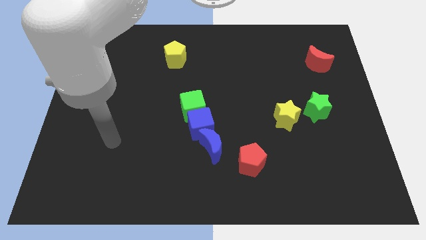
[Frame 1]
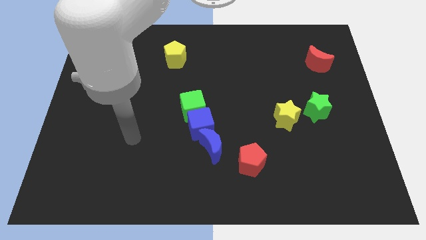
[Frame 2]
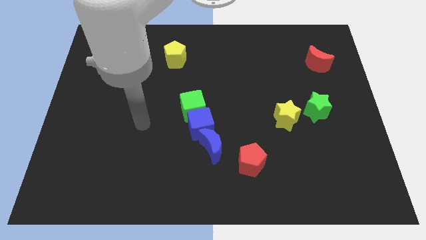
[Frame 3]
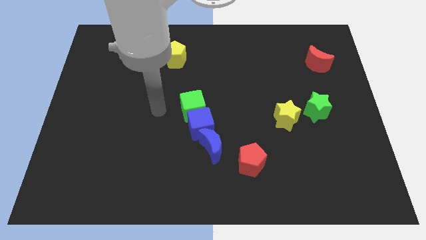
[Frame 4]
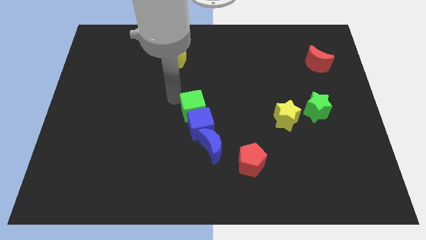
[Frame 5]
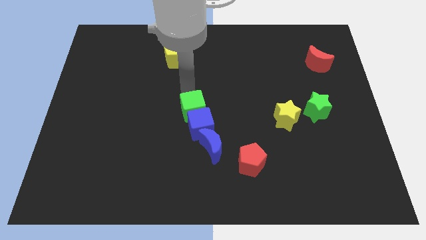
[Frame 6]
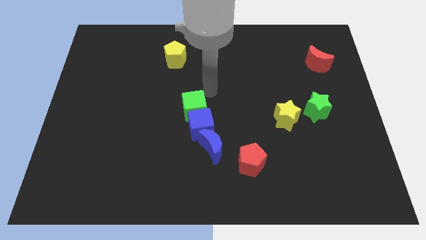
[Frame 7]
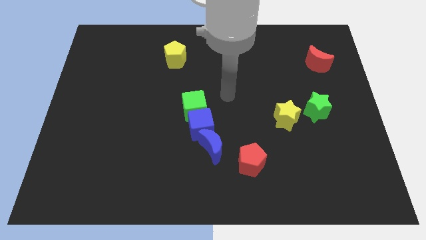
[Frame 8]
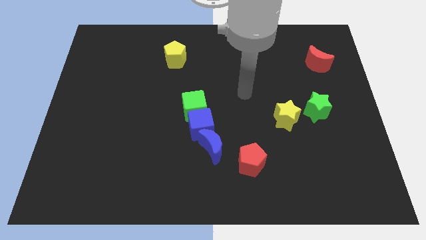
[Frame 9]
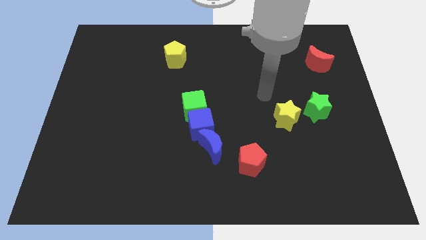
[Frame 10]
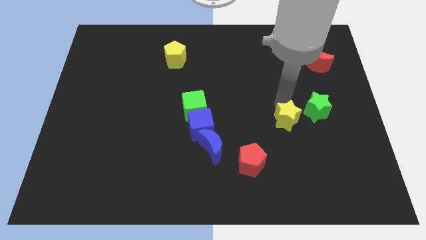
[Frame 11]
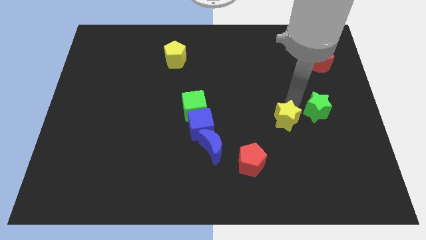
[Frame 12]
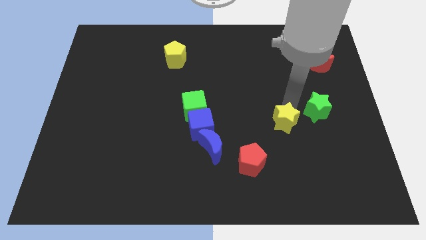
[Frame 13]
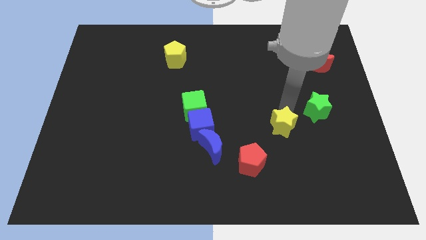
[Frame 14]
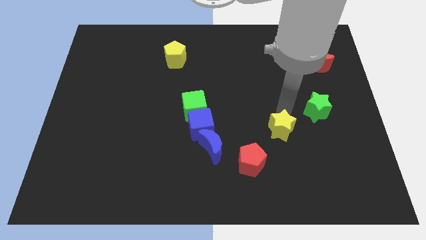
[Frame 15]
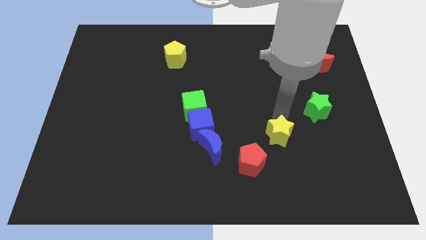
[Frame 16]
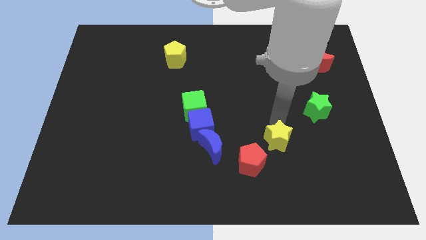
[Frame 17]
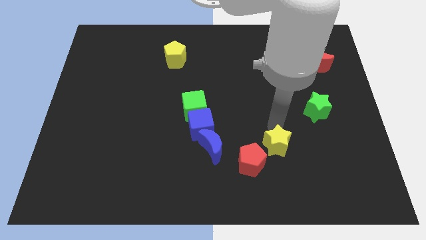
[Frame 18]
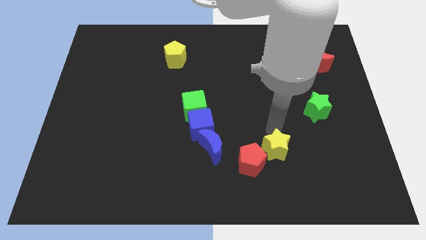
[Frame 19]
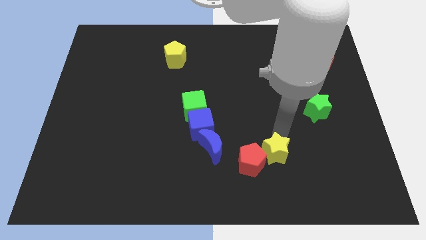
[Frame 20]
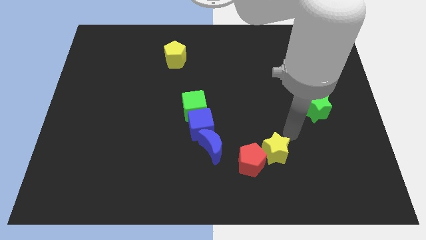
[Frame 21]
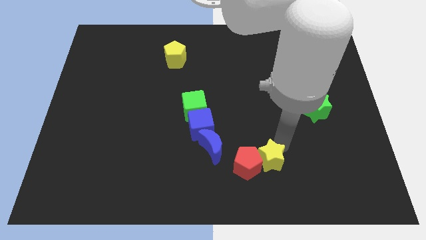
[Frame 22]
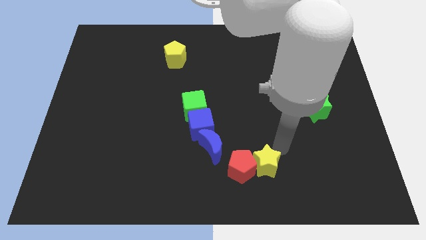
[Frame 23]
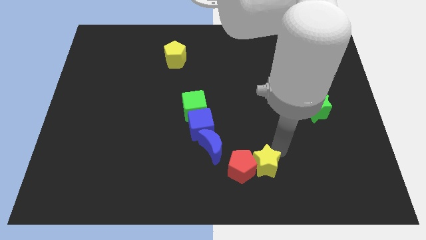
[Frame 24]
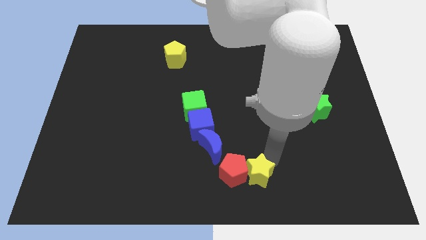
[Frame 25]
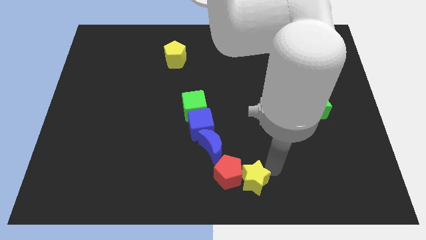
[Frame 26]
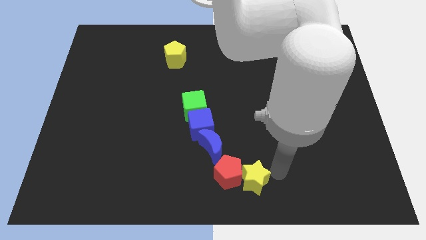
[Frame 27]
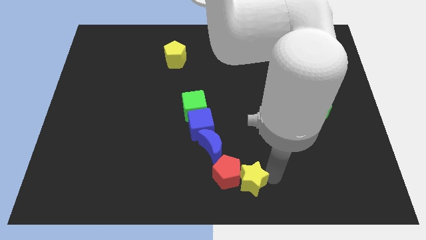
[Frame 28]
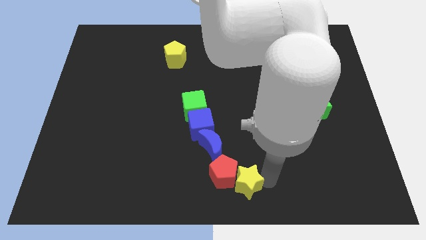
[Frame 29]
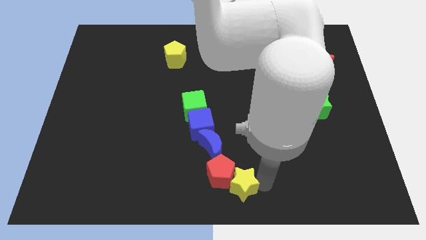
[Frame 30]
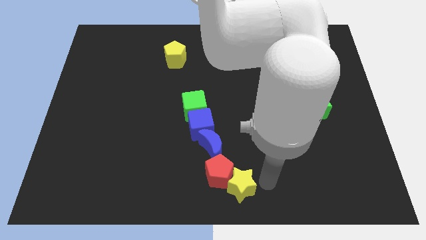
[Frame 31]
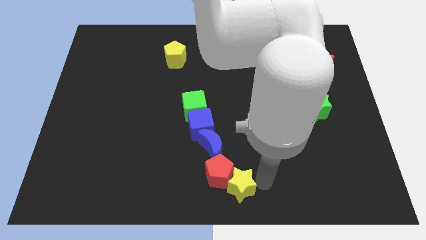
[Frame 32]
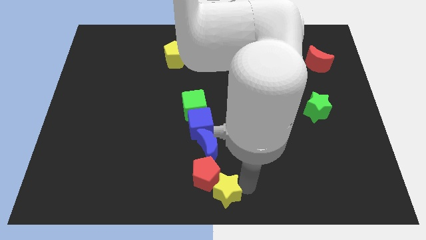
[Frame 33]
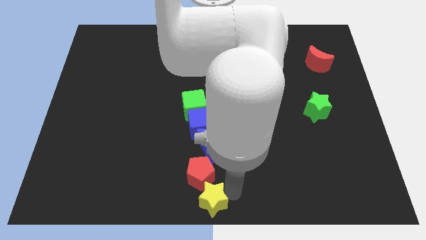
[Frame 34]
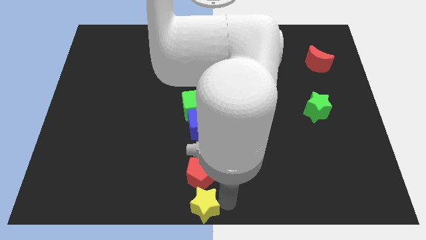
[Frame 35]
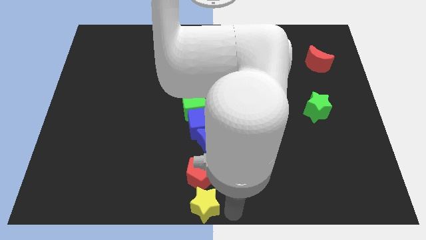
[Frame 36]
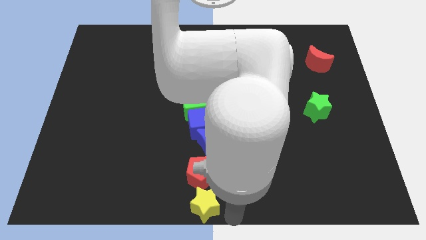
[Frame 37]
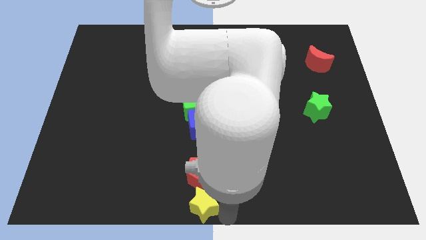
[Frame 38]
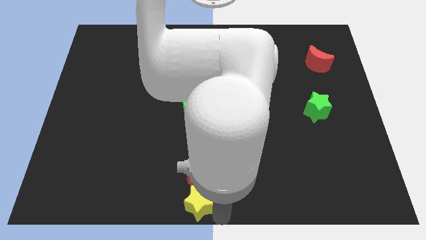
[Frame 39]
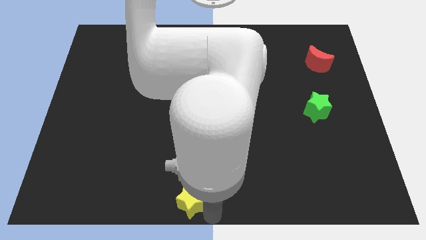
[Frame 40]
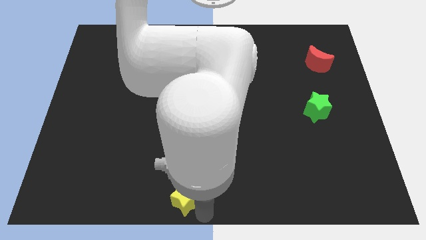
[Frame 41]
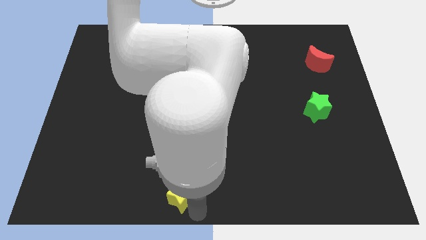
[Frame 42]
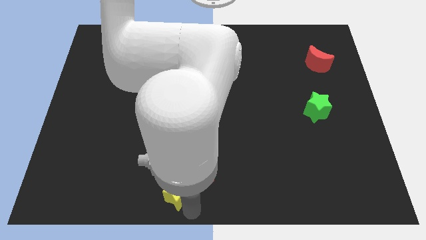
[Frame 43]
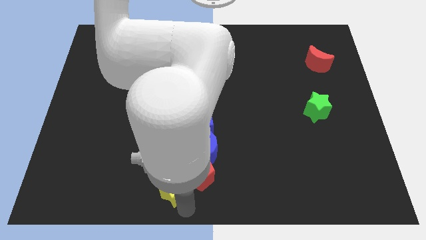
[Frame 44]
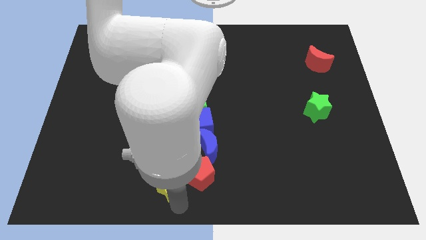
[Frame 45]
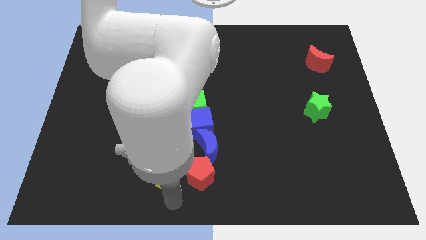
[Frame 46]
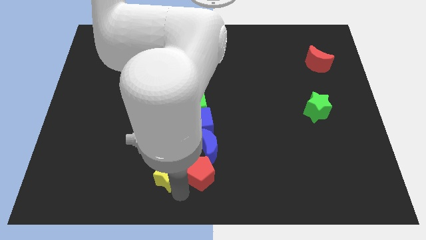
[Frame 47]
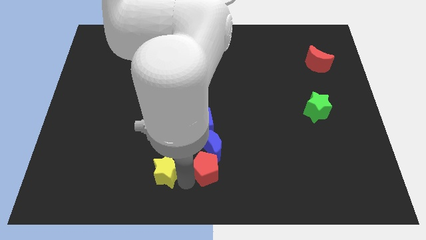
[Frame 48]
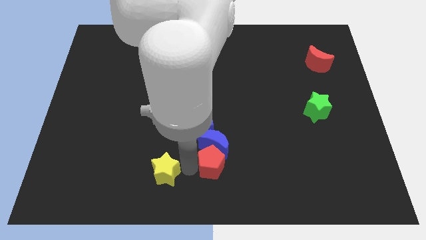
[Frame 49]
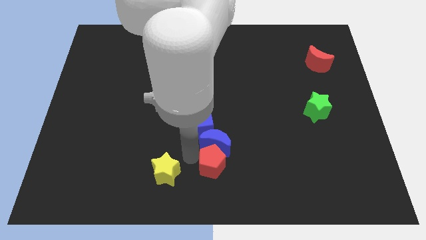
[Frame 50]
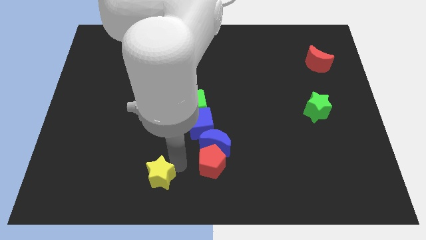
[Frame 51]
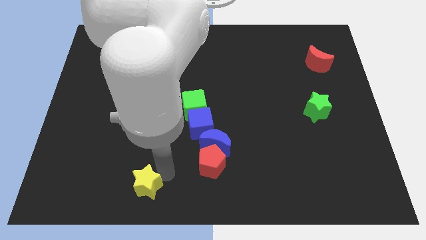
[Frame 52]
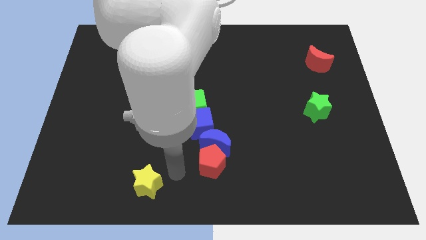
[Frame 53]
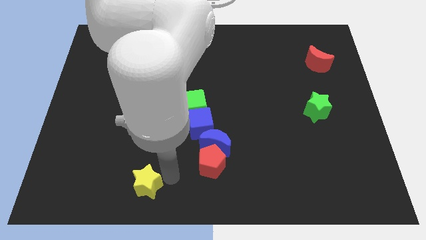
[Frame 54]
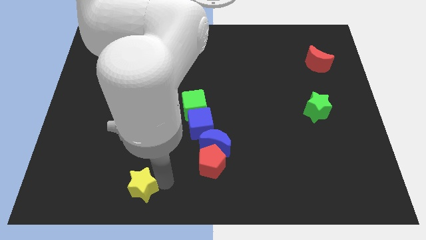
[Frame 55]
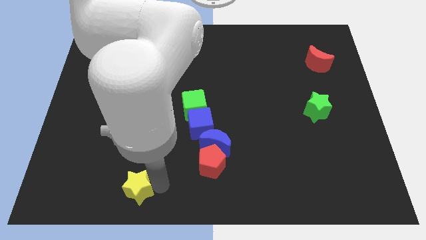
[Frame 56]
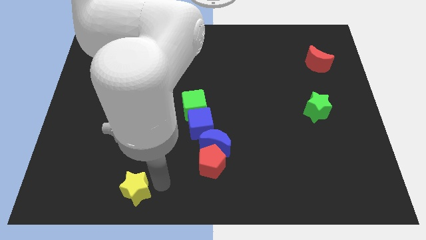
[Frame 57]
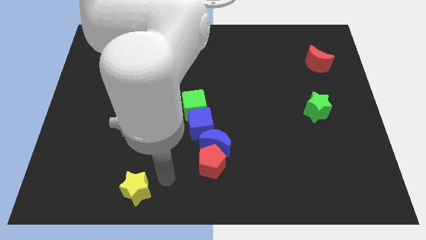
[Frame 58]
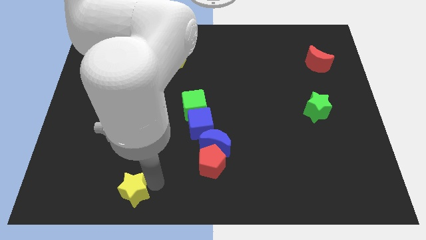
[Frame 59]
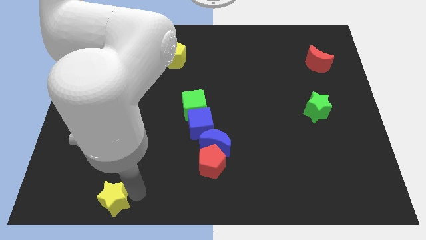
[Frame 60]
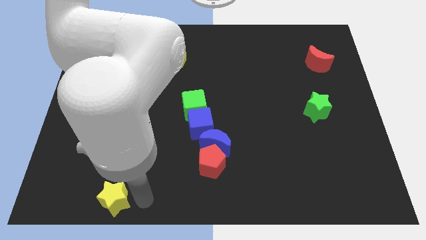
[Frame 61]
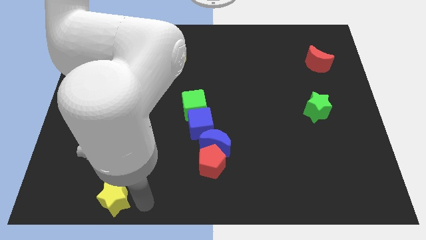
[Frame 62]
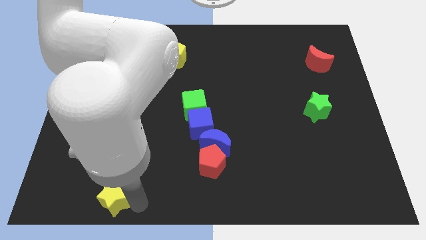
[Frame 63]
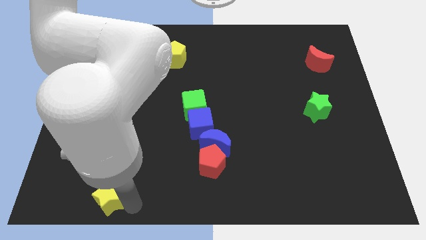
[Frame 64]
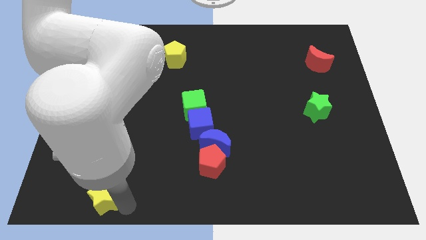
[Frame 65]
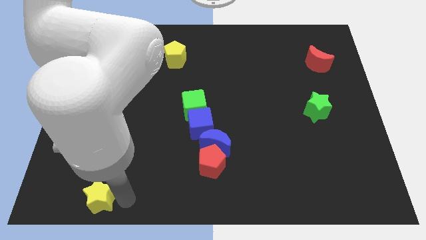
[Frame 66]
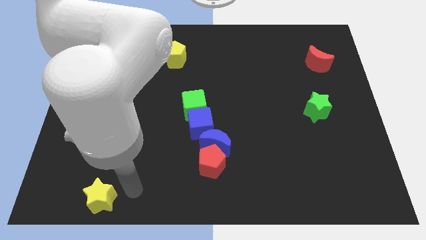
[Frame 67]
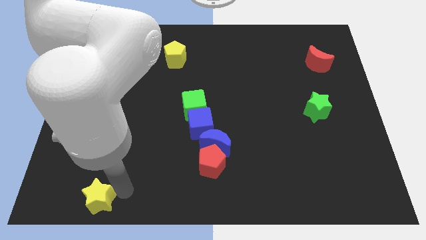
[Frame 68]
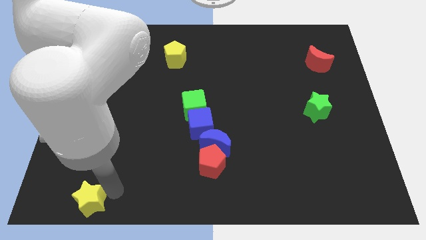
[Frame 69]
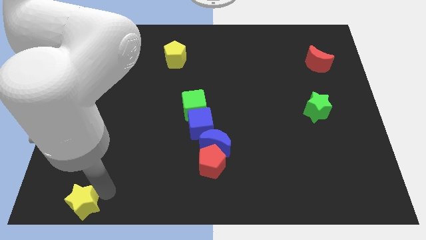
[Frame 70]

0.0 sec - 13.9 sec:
push the yellow star to the bottom left of the board
